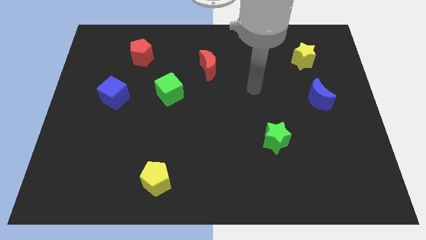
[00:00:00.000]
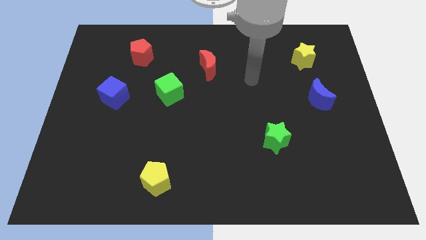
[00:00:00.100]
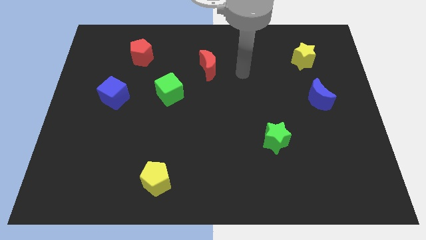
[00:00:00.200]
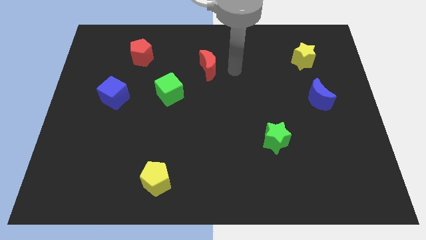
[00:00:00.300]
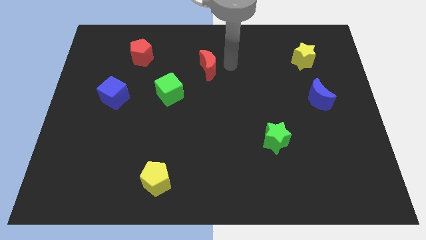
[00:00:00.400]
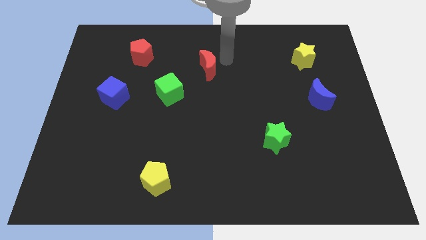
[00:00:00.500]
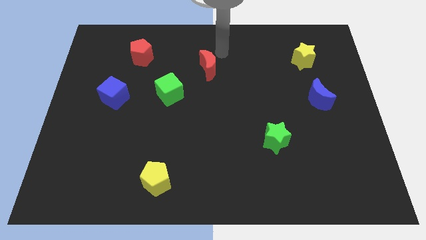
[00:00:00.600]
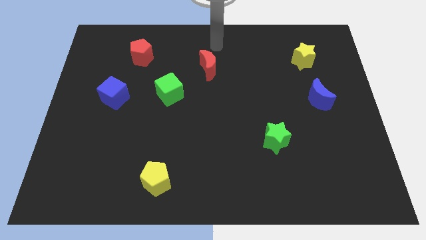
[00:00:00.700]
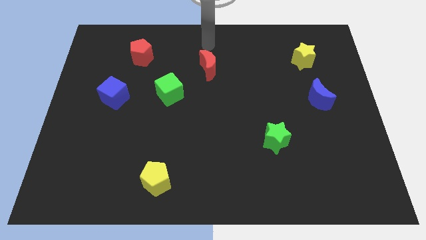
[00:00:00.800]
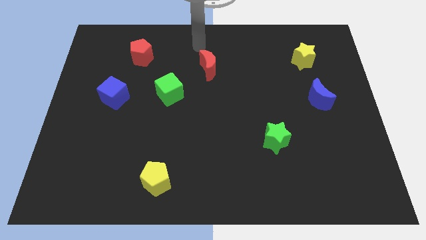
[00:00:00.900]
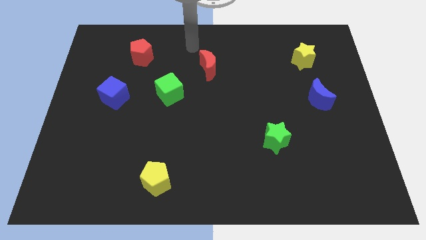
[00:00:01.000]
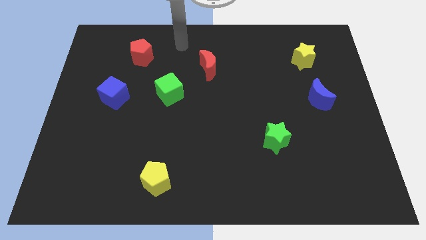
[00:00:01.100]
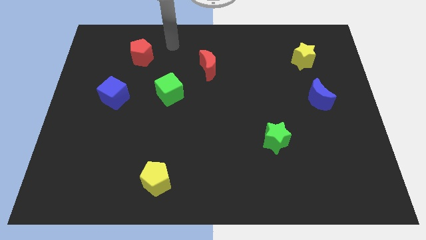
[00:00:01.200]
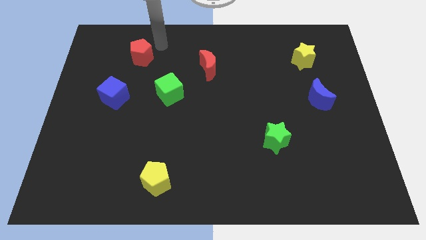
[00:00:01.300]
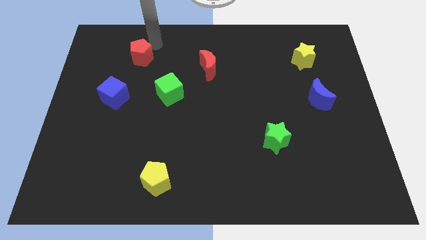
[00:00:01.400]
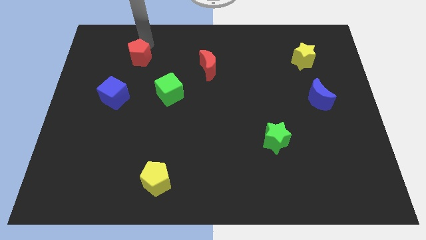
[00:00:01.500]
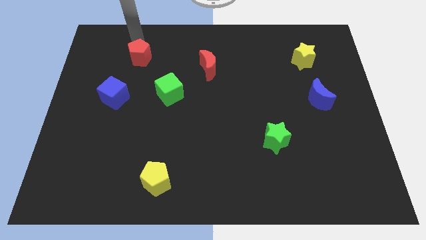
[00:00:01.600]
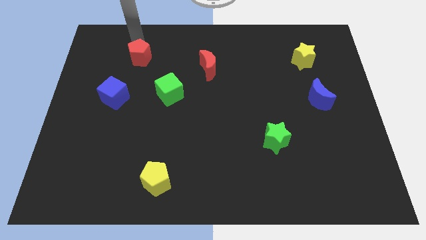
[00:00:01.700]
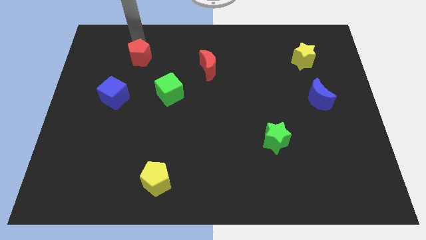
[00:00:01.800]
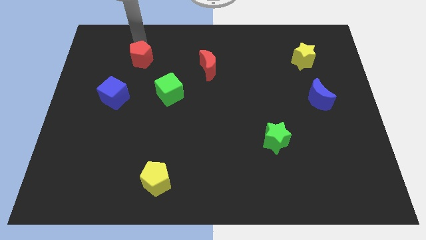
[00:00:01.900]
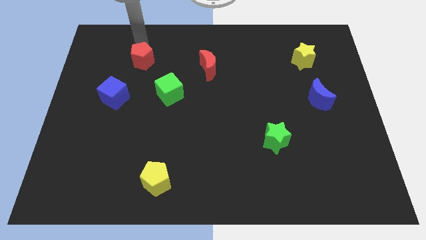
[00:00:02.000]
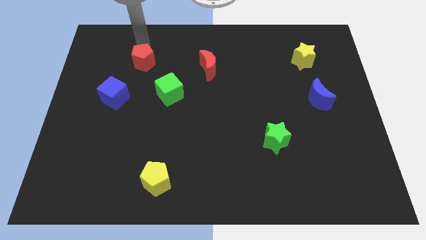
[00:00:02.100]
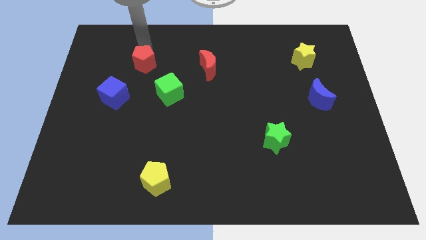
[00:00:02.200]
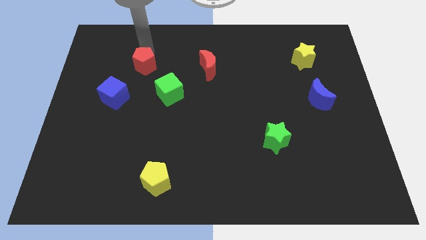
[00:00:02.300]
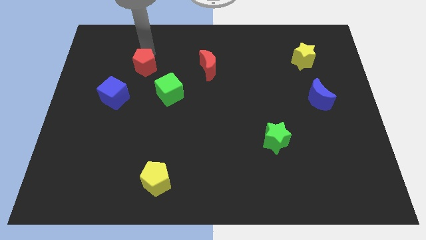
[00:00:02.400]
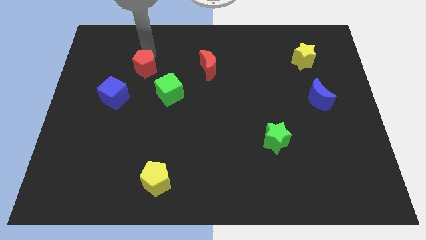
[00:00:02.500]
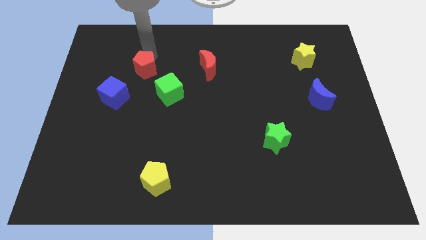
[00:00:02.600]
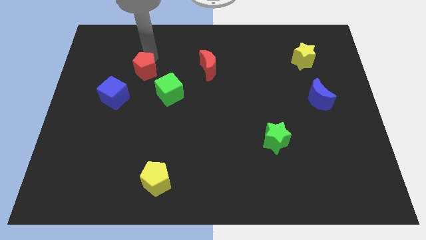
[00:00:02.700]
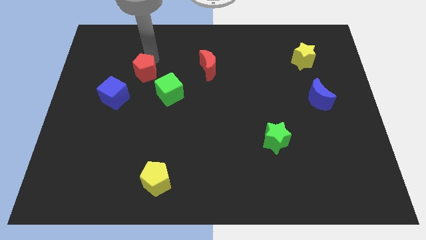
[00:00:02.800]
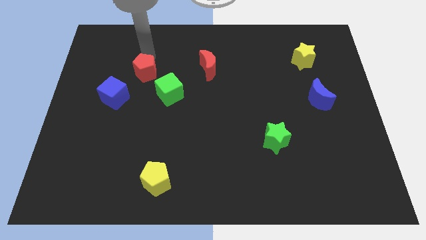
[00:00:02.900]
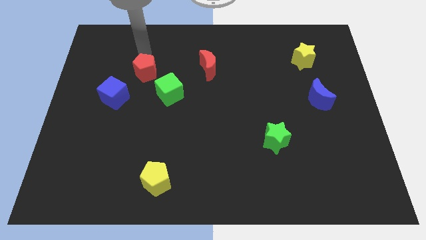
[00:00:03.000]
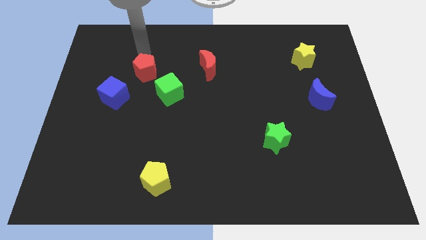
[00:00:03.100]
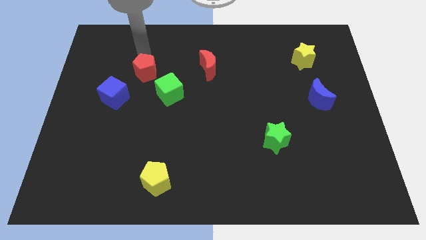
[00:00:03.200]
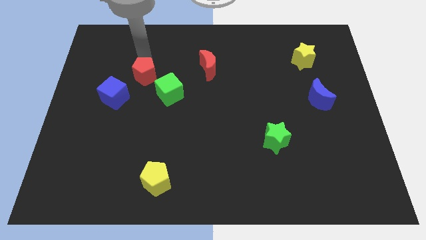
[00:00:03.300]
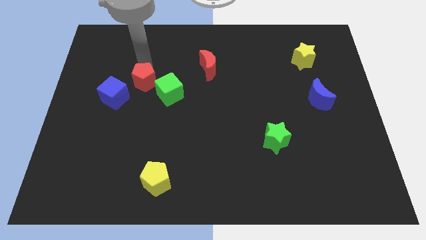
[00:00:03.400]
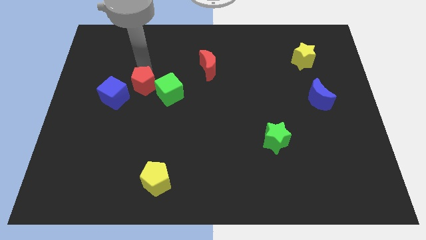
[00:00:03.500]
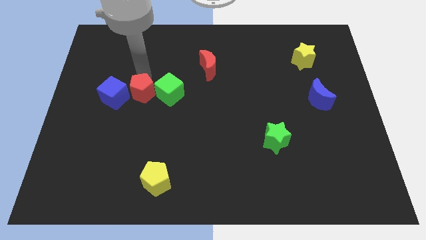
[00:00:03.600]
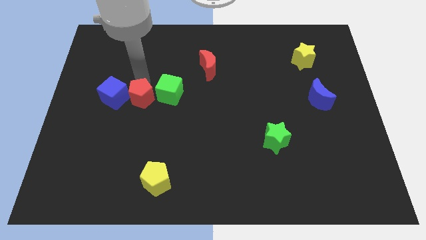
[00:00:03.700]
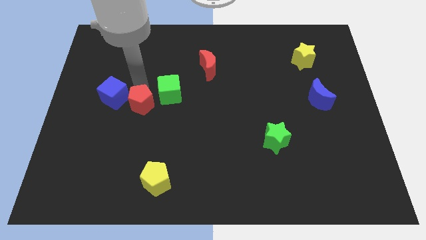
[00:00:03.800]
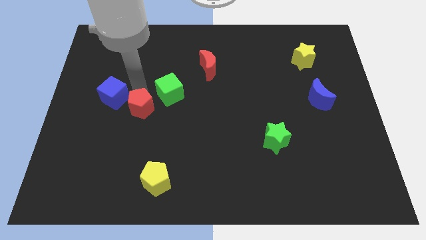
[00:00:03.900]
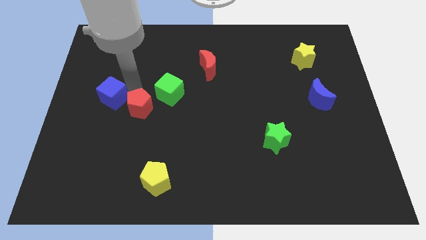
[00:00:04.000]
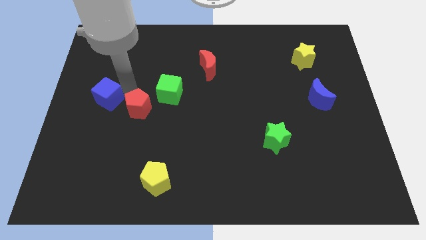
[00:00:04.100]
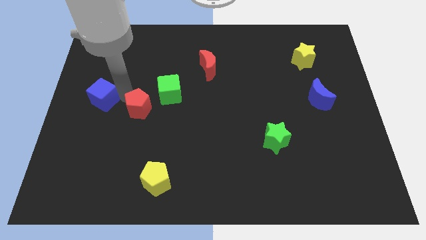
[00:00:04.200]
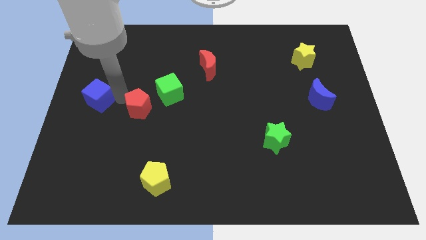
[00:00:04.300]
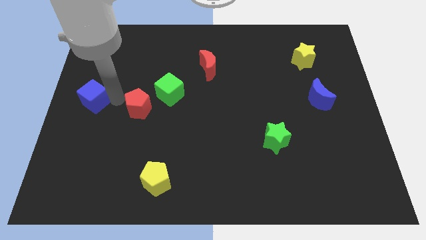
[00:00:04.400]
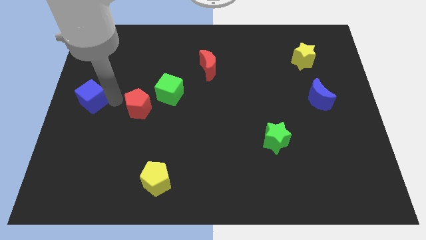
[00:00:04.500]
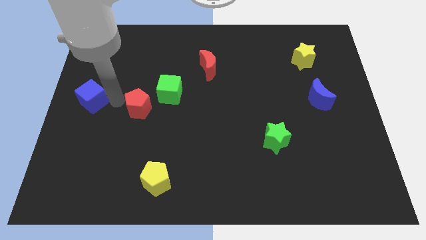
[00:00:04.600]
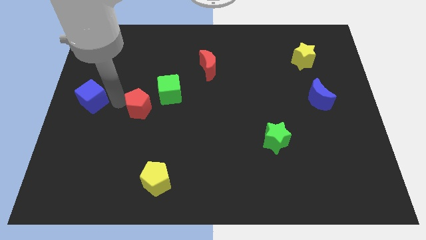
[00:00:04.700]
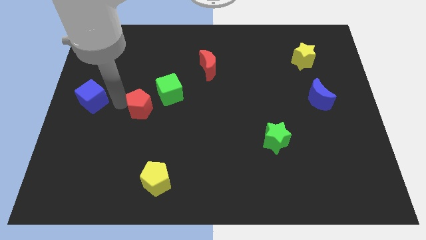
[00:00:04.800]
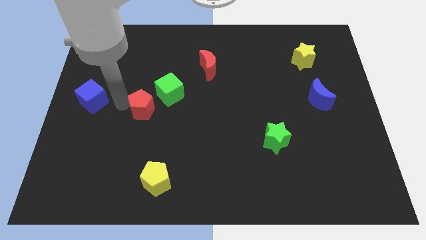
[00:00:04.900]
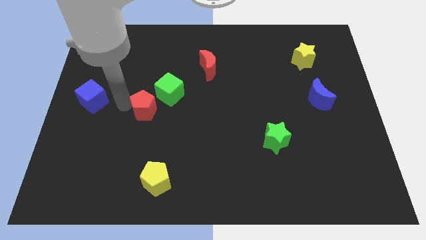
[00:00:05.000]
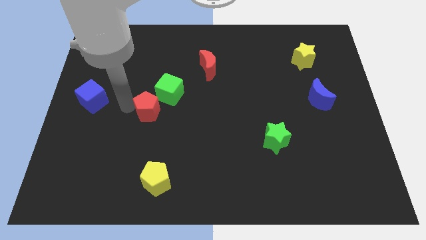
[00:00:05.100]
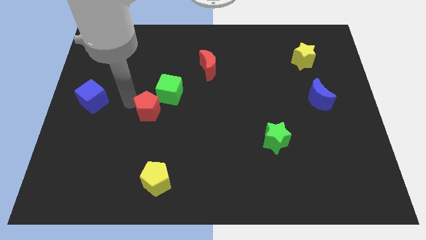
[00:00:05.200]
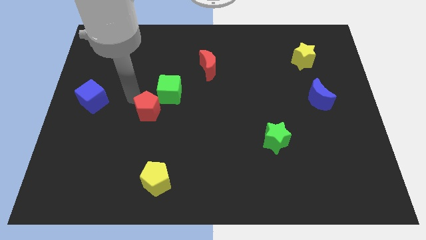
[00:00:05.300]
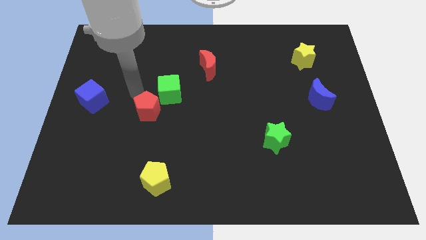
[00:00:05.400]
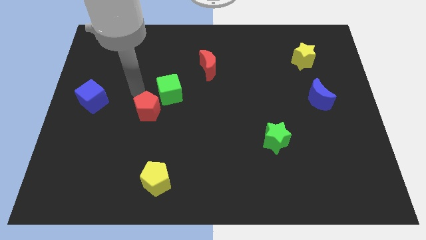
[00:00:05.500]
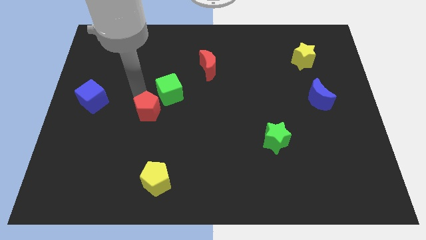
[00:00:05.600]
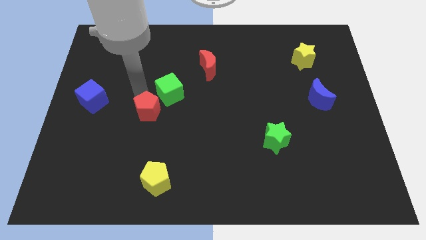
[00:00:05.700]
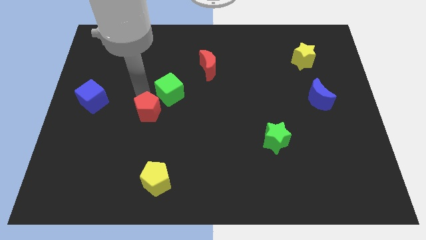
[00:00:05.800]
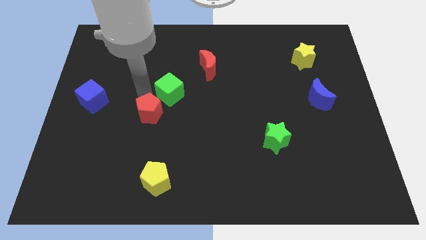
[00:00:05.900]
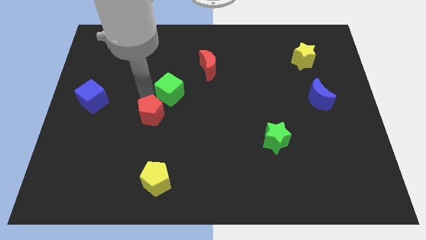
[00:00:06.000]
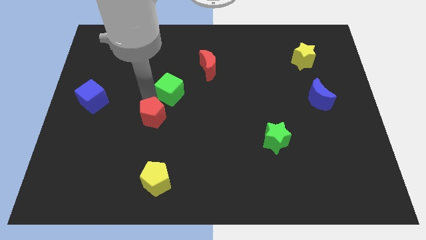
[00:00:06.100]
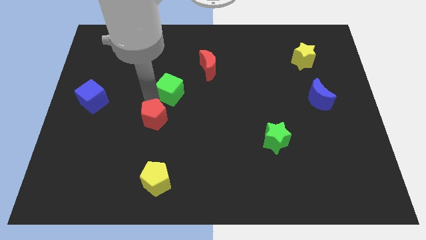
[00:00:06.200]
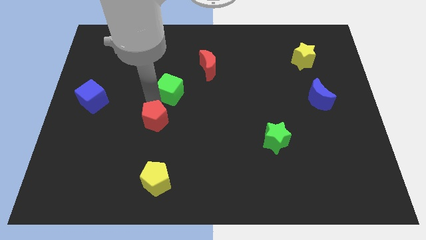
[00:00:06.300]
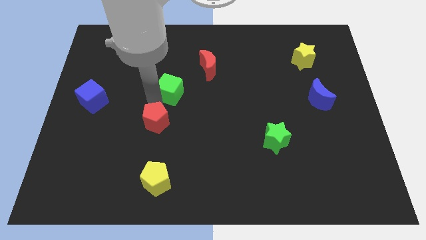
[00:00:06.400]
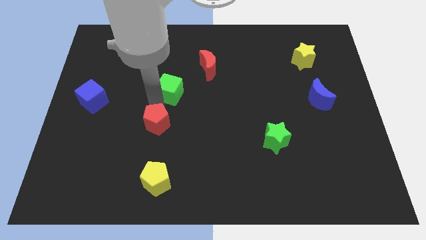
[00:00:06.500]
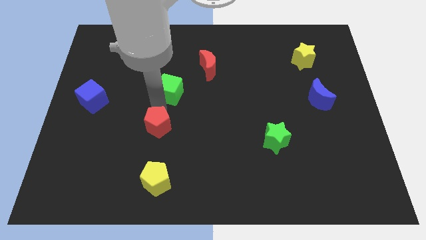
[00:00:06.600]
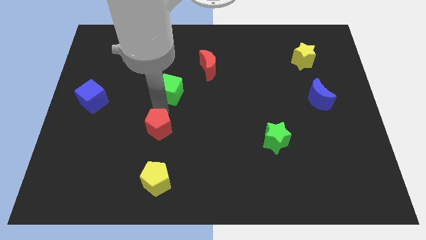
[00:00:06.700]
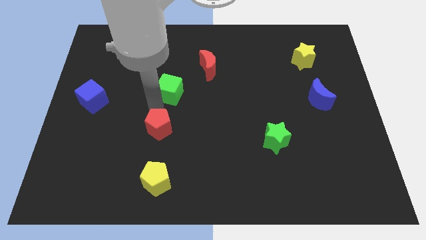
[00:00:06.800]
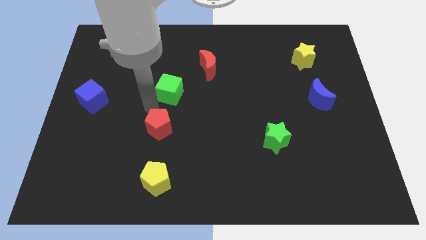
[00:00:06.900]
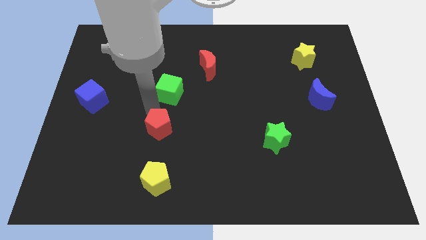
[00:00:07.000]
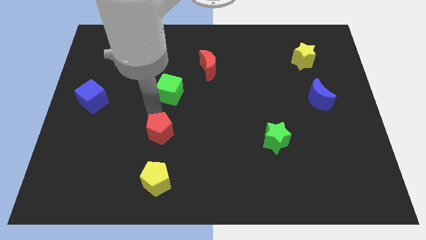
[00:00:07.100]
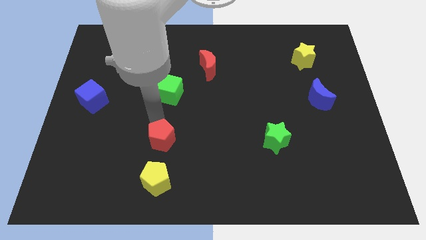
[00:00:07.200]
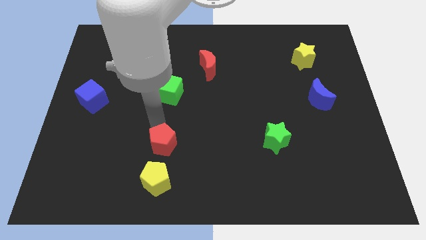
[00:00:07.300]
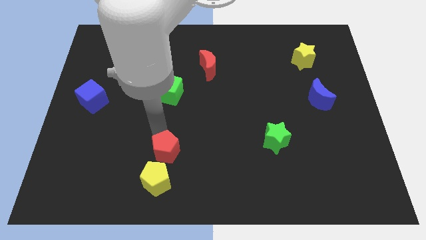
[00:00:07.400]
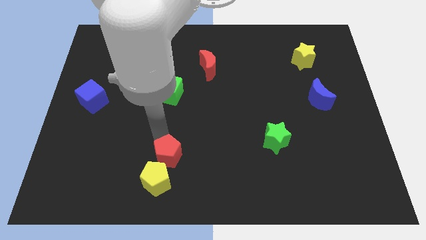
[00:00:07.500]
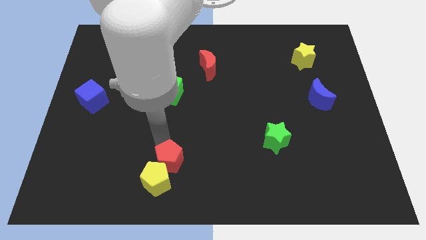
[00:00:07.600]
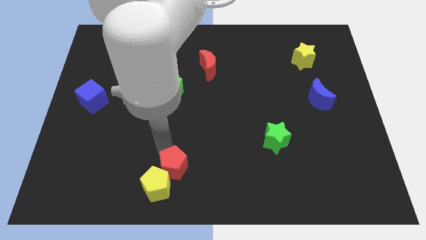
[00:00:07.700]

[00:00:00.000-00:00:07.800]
put the red pentagon to the bottom
